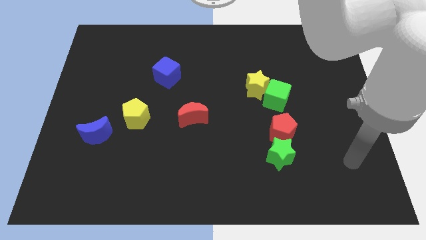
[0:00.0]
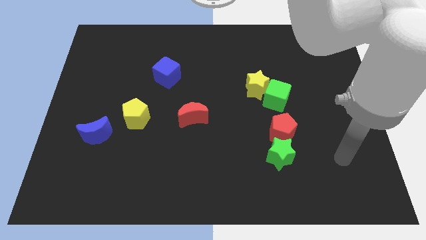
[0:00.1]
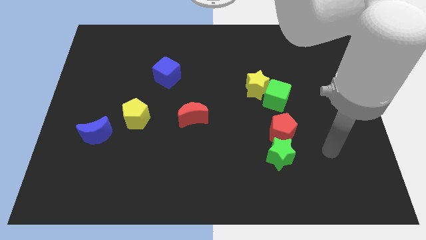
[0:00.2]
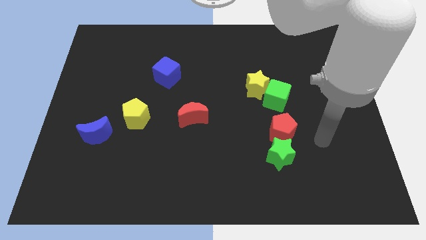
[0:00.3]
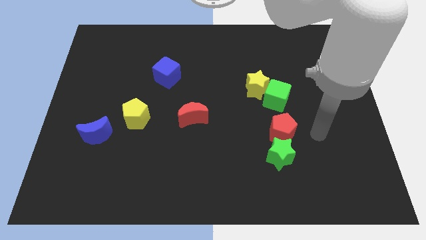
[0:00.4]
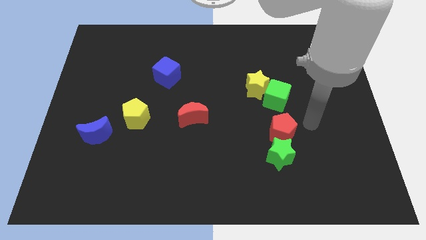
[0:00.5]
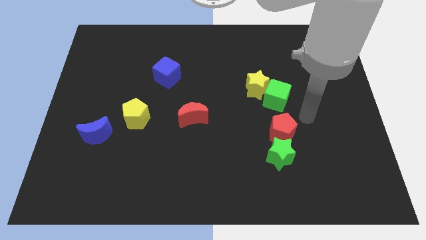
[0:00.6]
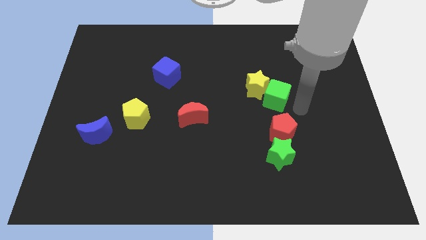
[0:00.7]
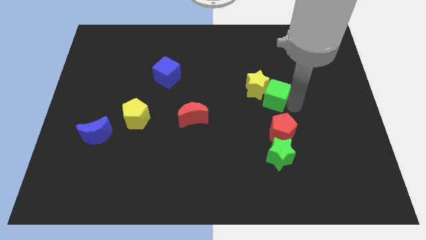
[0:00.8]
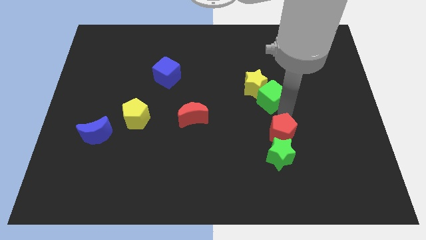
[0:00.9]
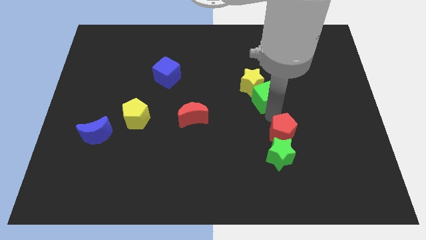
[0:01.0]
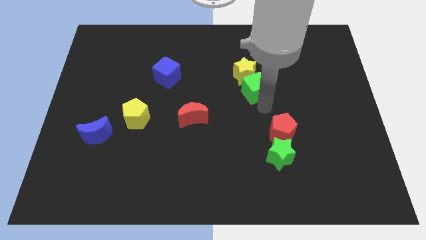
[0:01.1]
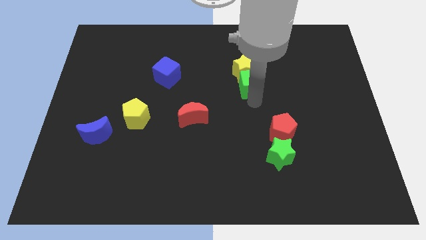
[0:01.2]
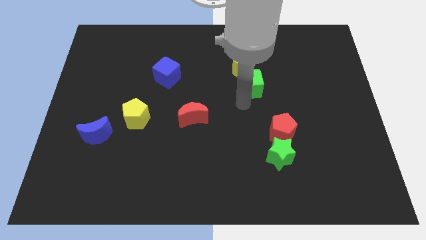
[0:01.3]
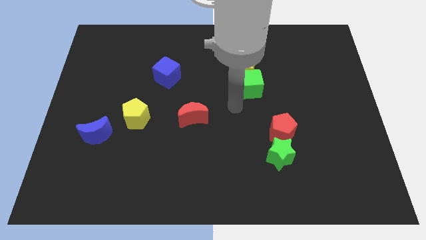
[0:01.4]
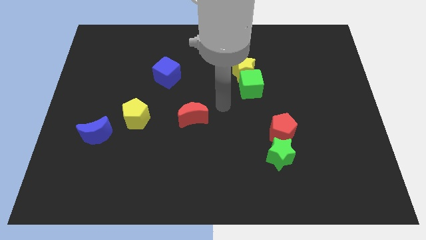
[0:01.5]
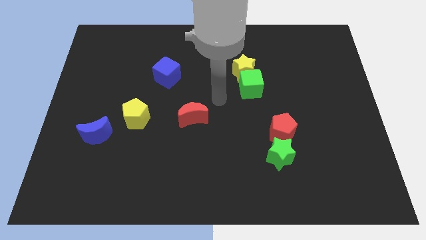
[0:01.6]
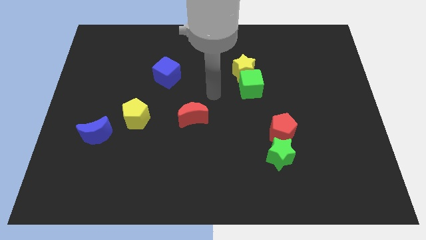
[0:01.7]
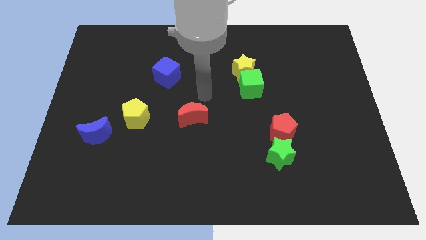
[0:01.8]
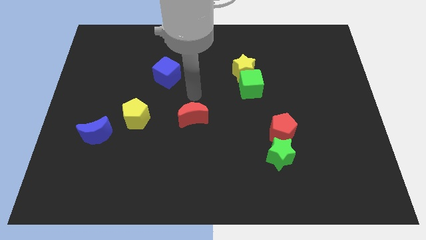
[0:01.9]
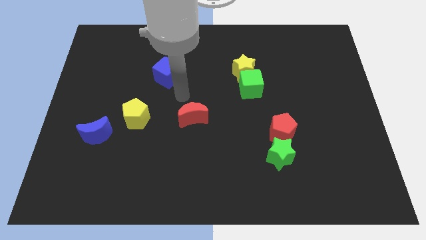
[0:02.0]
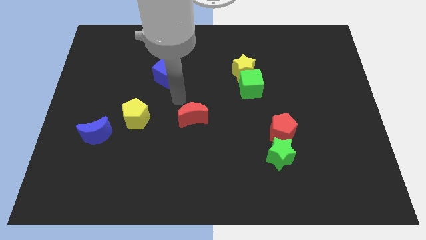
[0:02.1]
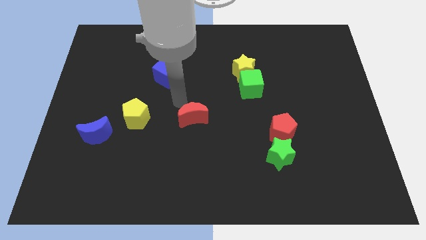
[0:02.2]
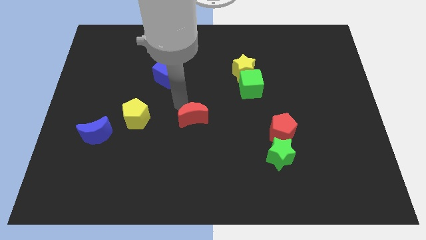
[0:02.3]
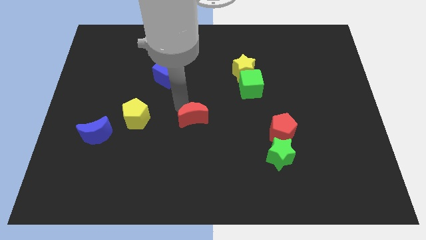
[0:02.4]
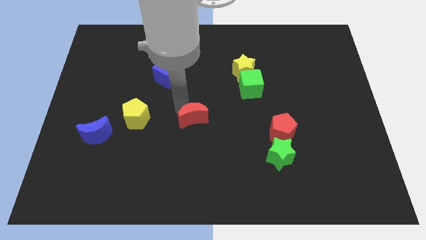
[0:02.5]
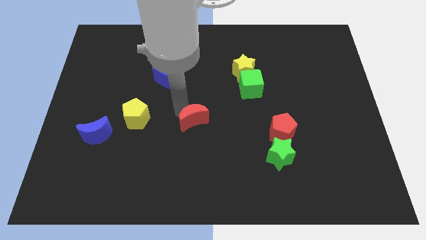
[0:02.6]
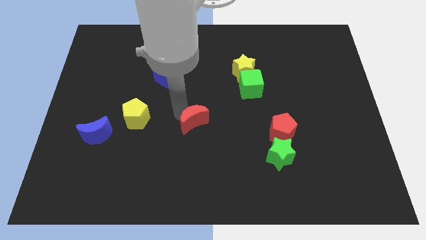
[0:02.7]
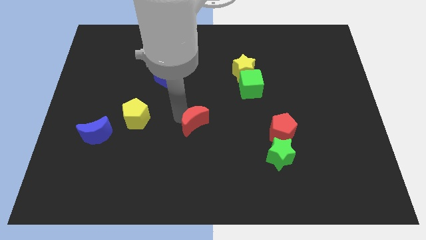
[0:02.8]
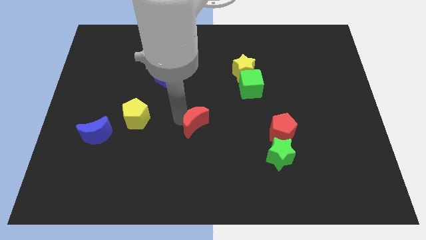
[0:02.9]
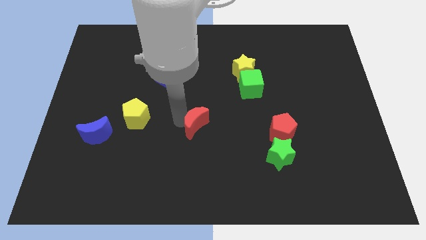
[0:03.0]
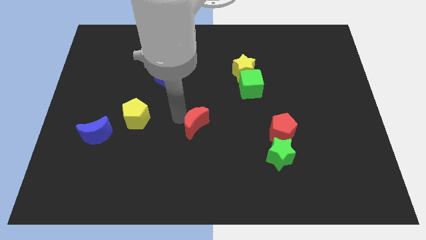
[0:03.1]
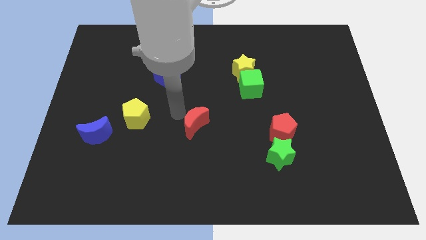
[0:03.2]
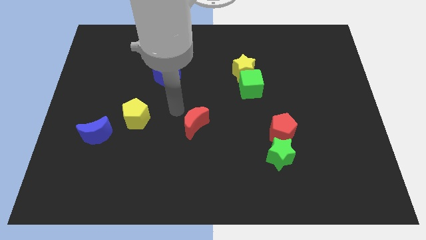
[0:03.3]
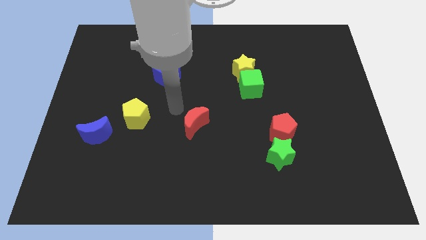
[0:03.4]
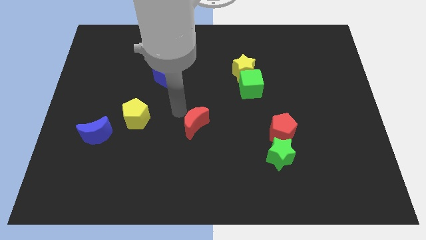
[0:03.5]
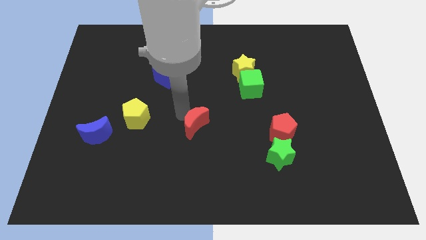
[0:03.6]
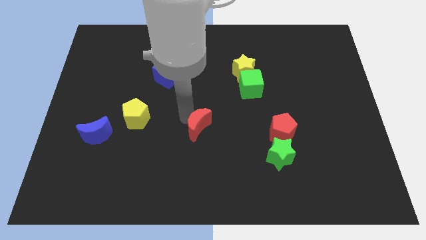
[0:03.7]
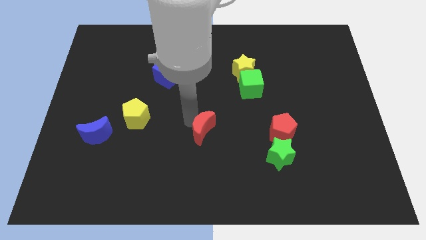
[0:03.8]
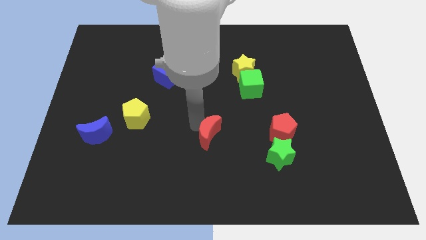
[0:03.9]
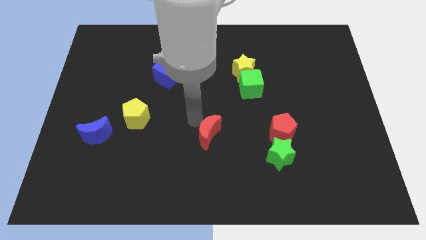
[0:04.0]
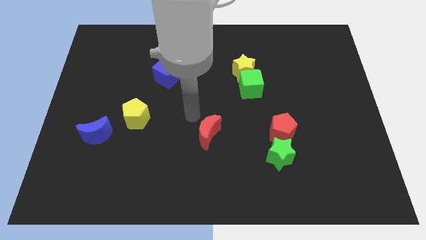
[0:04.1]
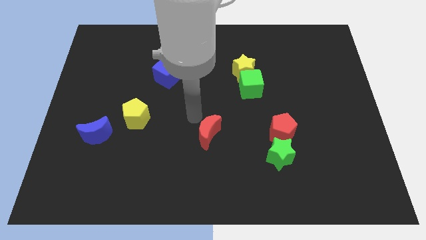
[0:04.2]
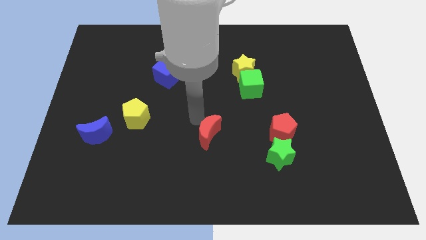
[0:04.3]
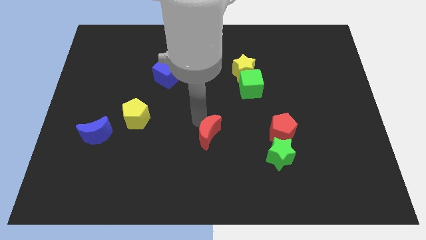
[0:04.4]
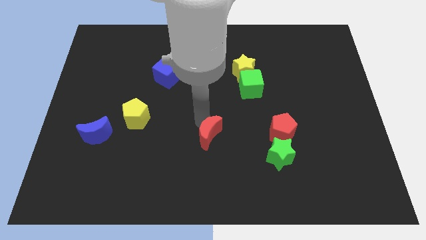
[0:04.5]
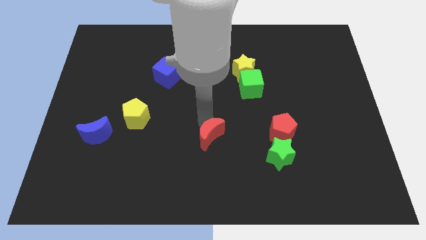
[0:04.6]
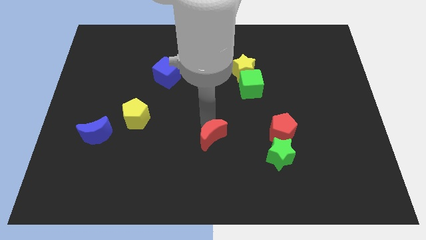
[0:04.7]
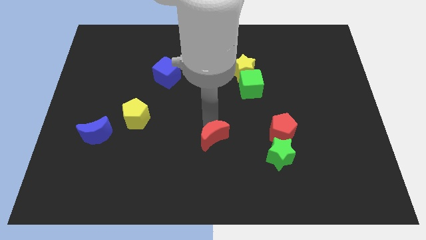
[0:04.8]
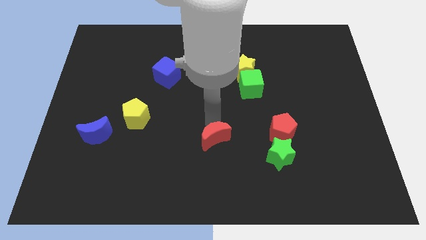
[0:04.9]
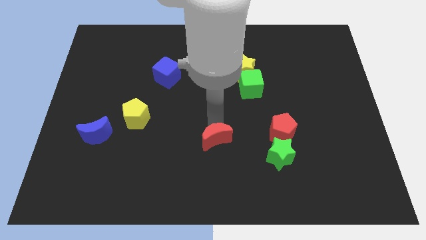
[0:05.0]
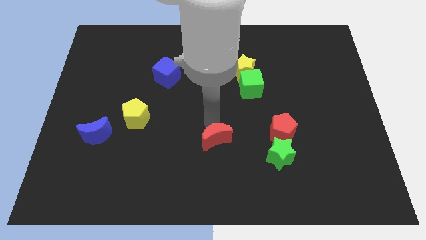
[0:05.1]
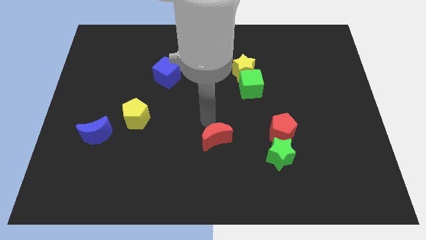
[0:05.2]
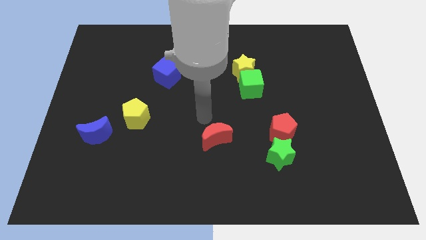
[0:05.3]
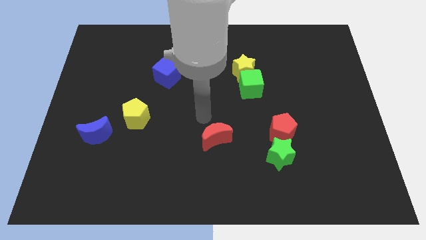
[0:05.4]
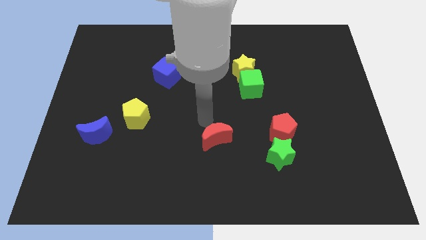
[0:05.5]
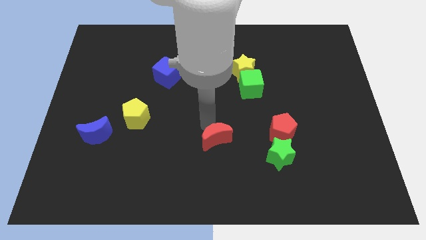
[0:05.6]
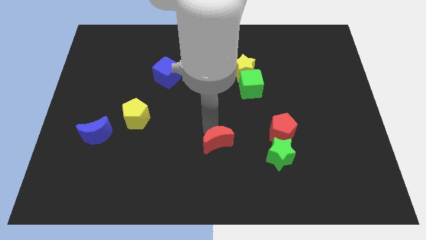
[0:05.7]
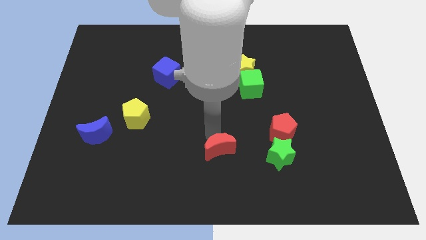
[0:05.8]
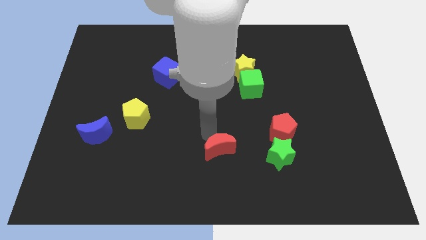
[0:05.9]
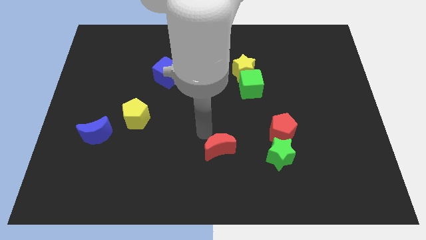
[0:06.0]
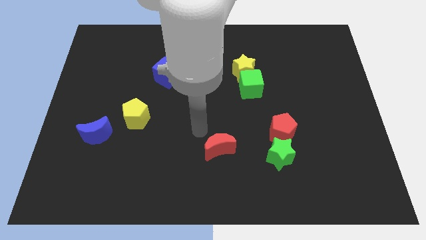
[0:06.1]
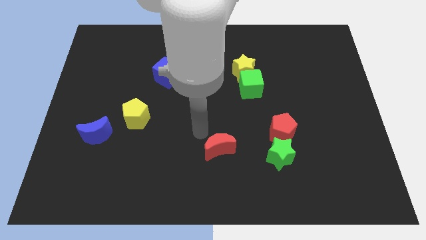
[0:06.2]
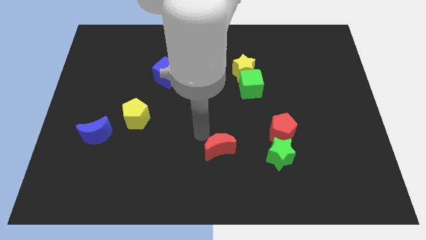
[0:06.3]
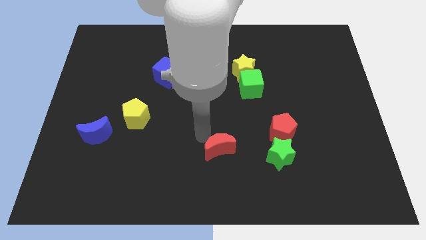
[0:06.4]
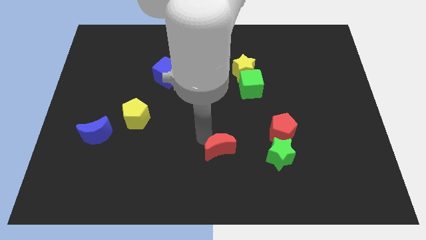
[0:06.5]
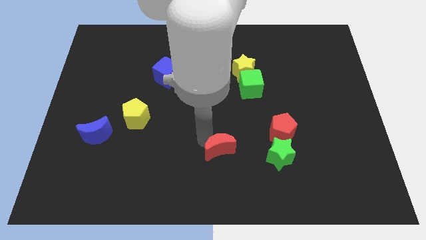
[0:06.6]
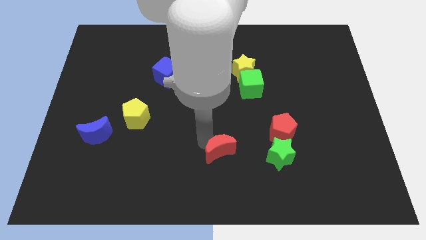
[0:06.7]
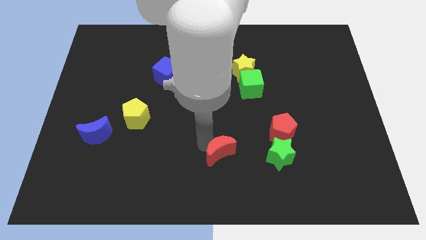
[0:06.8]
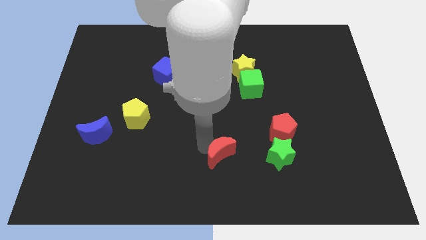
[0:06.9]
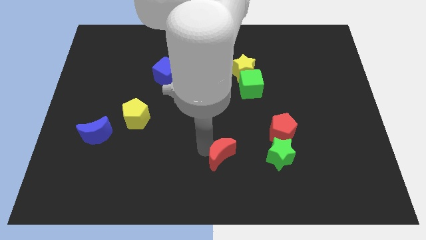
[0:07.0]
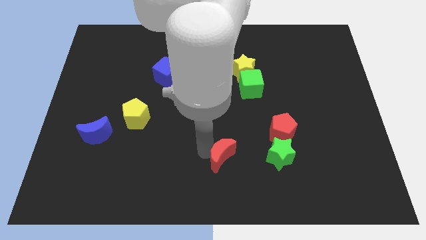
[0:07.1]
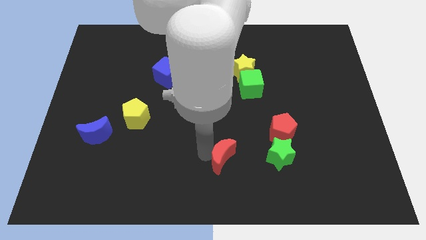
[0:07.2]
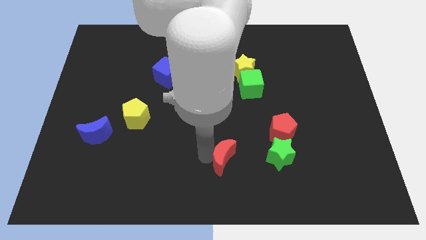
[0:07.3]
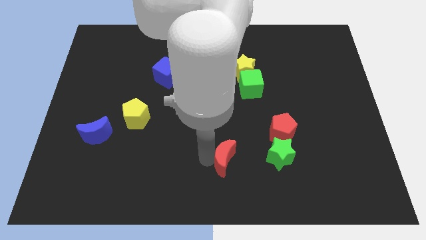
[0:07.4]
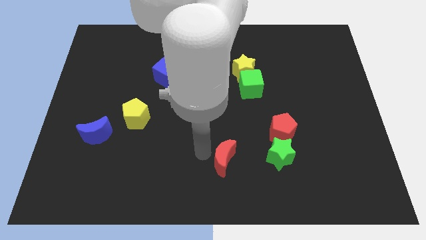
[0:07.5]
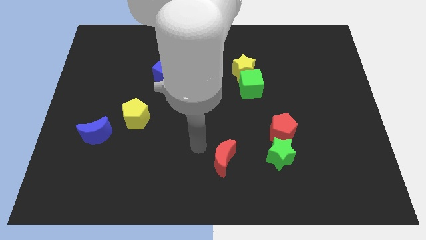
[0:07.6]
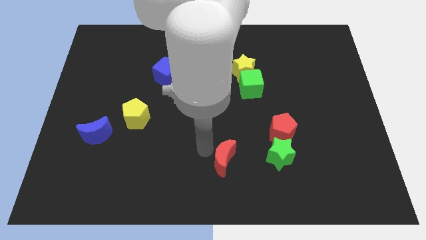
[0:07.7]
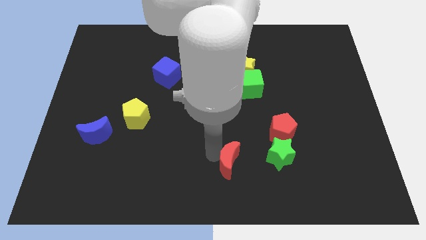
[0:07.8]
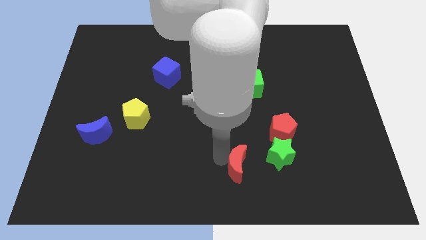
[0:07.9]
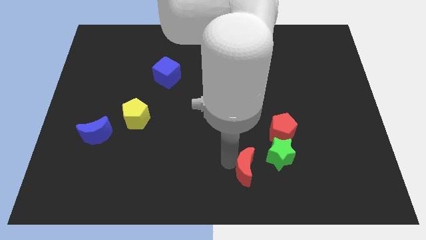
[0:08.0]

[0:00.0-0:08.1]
push the red moon to the bottom left side of the green star
